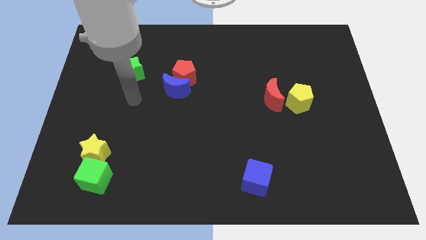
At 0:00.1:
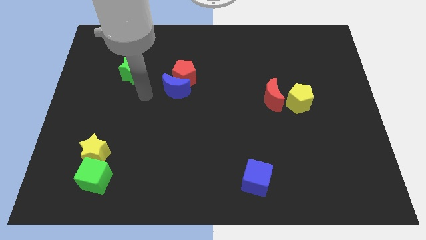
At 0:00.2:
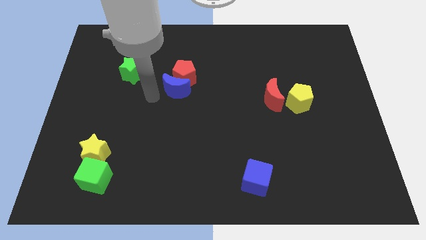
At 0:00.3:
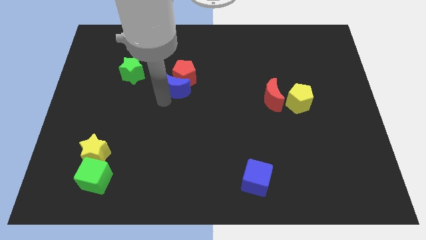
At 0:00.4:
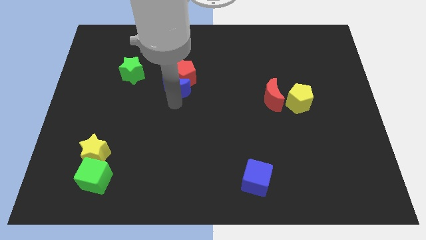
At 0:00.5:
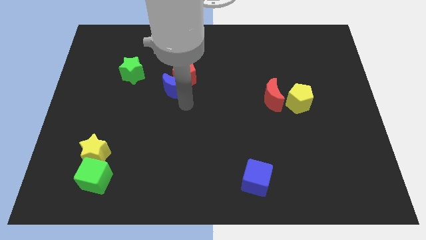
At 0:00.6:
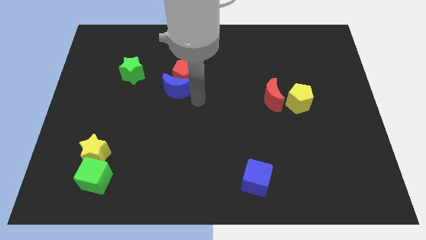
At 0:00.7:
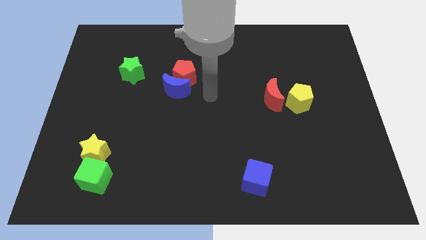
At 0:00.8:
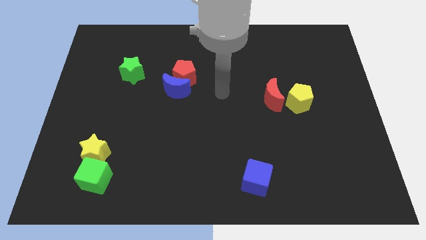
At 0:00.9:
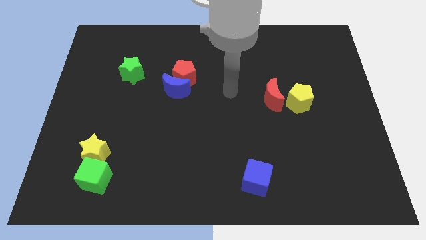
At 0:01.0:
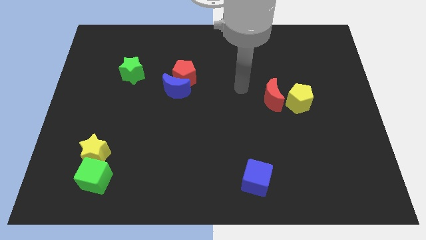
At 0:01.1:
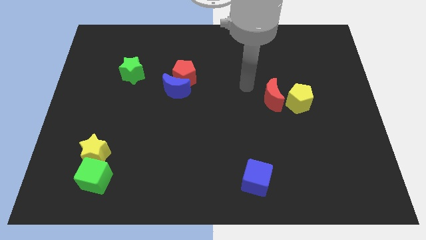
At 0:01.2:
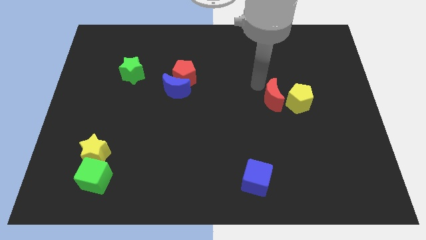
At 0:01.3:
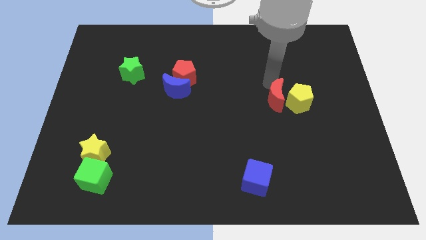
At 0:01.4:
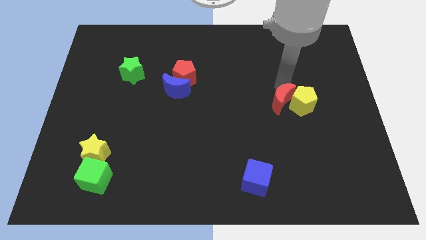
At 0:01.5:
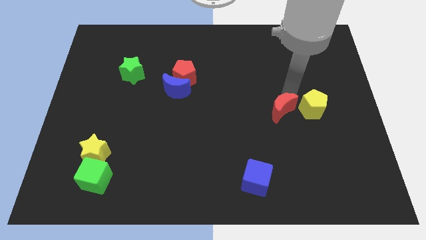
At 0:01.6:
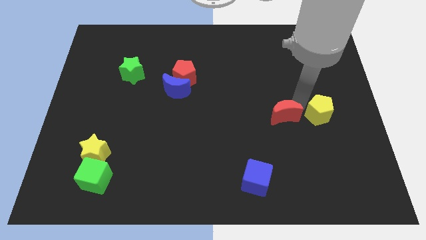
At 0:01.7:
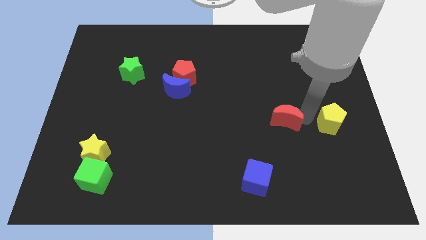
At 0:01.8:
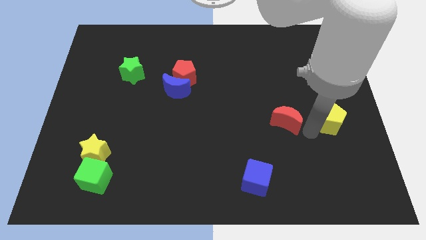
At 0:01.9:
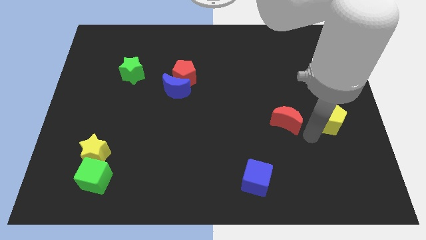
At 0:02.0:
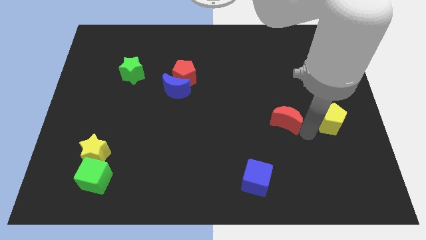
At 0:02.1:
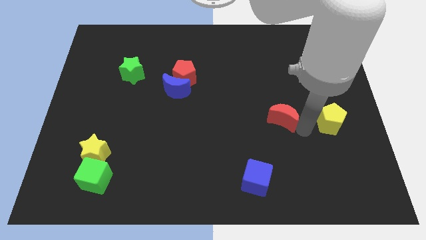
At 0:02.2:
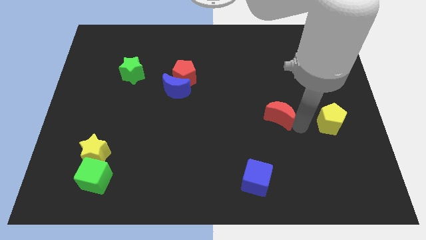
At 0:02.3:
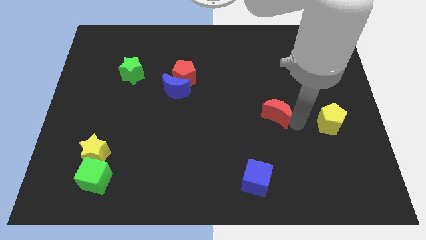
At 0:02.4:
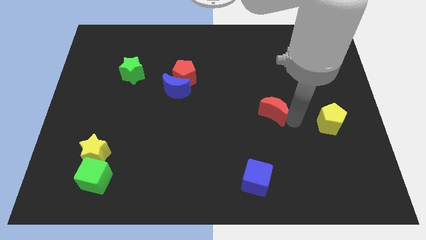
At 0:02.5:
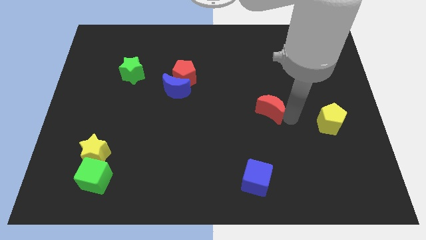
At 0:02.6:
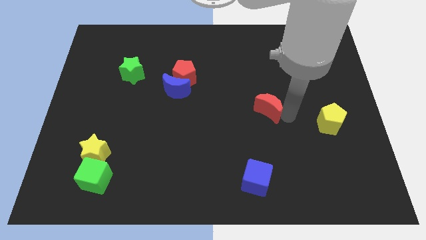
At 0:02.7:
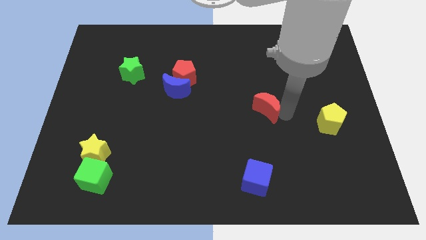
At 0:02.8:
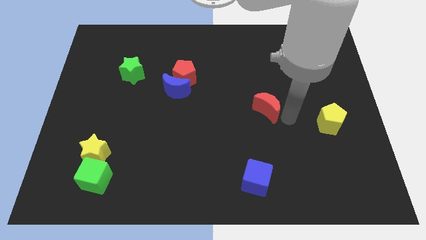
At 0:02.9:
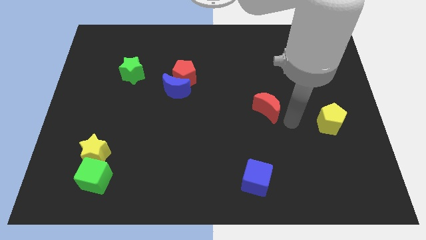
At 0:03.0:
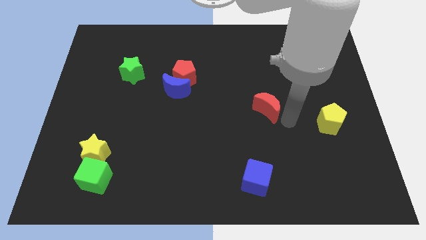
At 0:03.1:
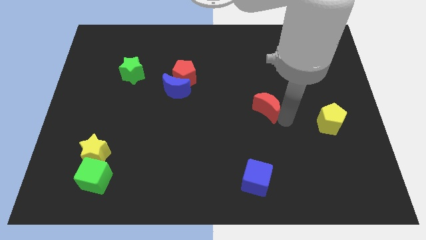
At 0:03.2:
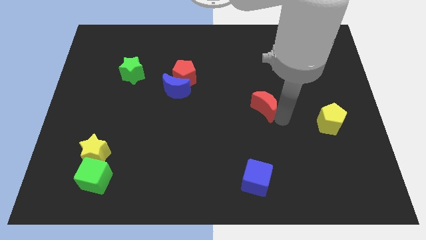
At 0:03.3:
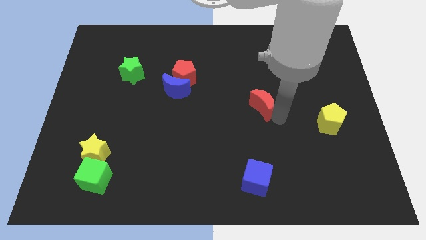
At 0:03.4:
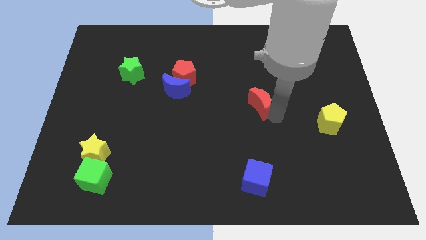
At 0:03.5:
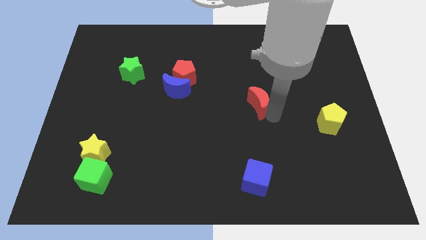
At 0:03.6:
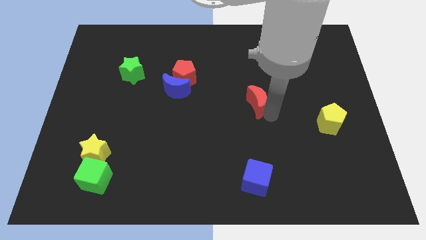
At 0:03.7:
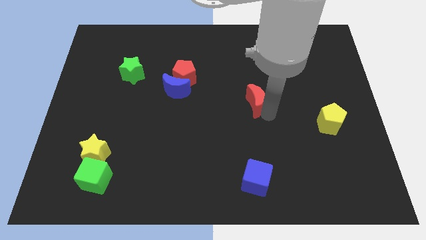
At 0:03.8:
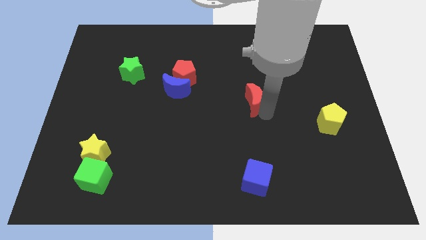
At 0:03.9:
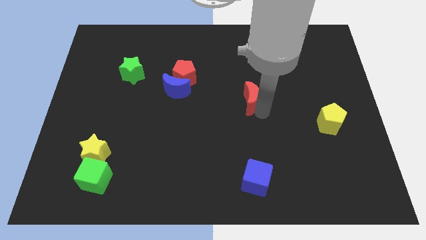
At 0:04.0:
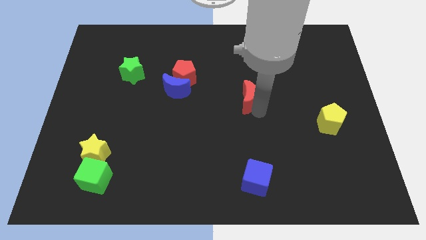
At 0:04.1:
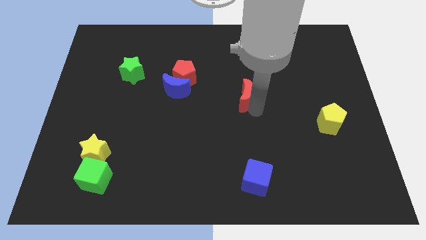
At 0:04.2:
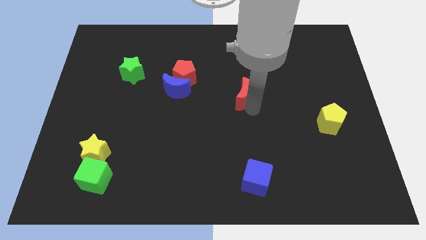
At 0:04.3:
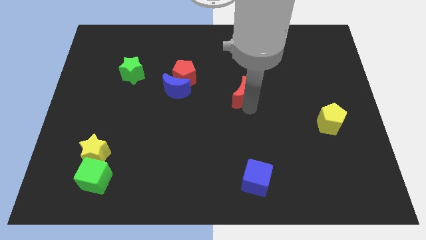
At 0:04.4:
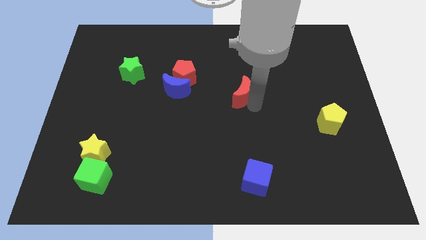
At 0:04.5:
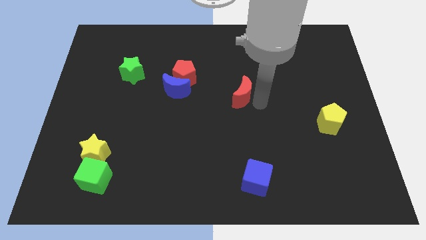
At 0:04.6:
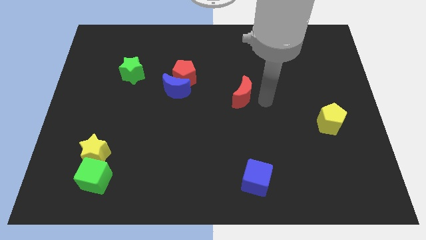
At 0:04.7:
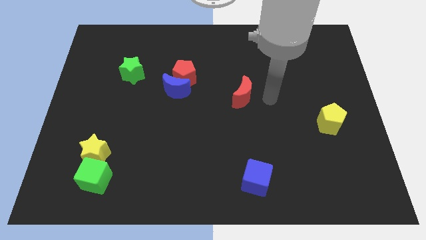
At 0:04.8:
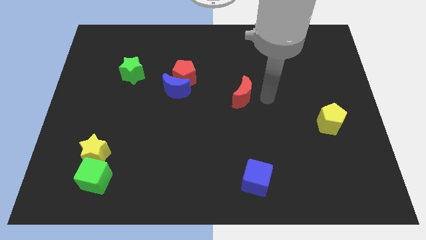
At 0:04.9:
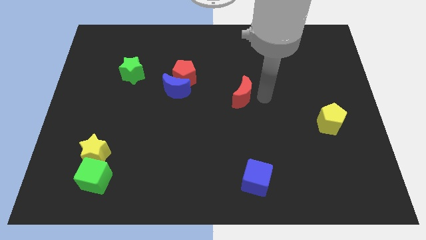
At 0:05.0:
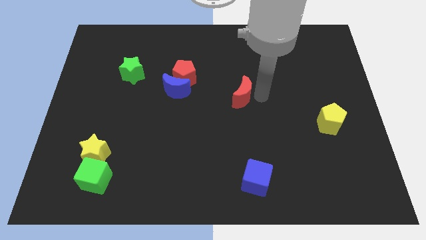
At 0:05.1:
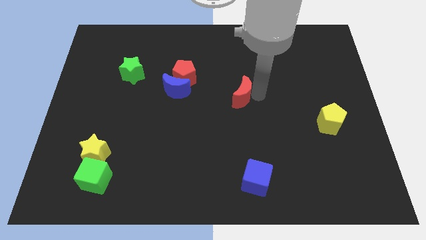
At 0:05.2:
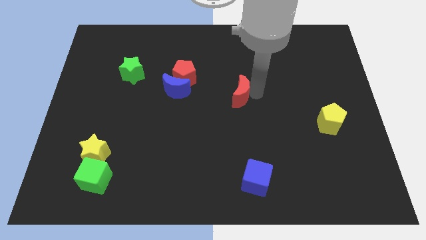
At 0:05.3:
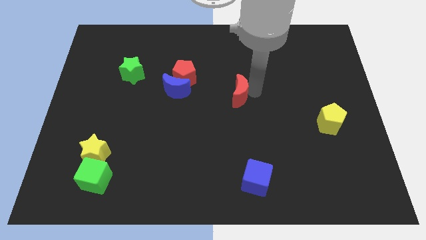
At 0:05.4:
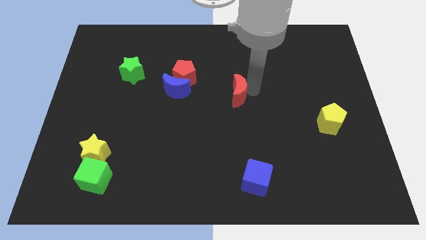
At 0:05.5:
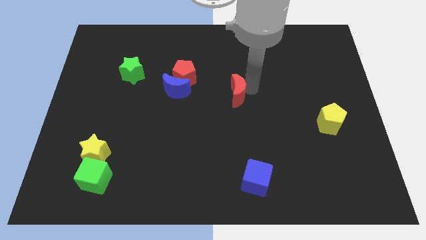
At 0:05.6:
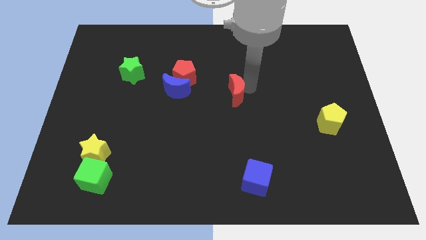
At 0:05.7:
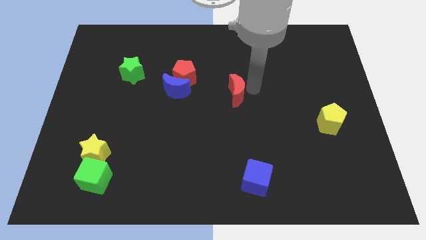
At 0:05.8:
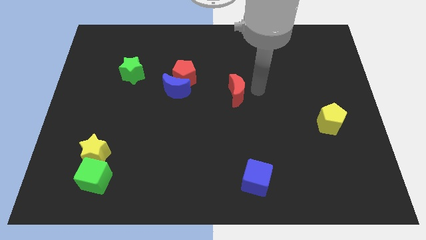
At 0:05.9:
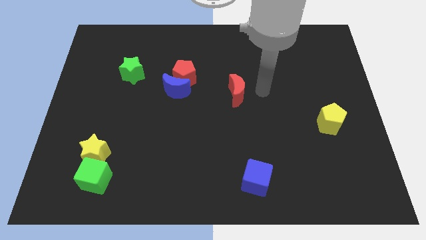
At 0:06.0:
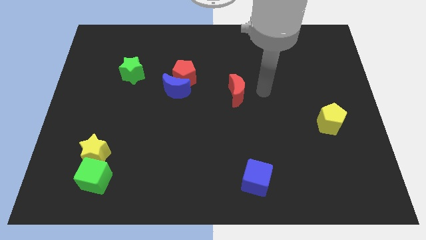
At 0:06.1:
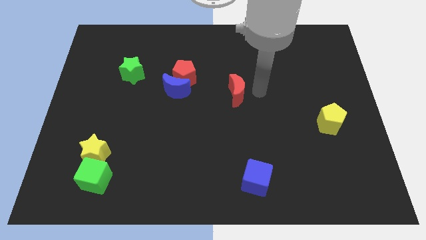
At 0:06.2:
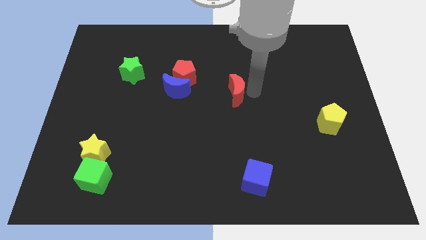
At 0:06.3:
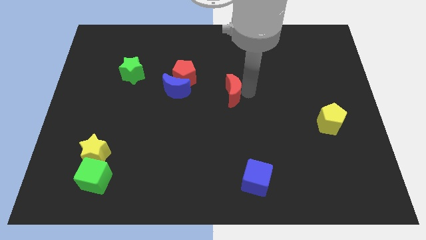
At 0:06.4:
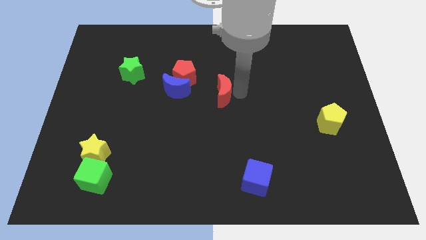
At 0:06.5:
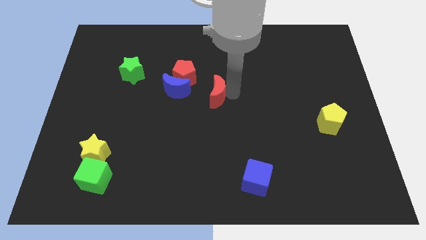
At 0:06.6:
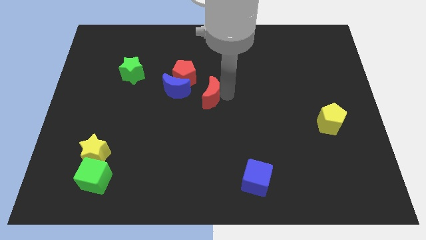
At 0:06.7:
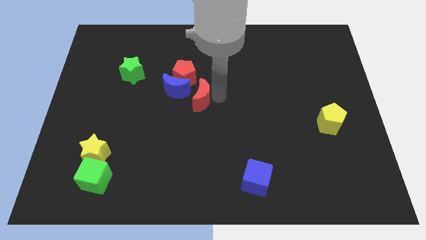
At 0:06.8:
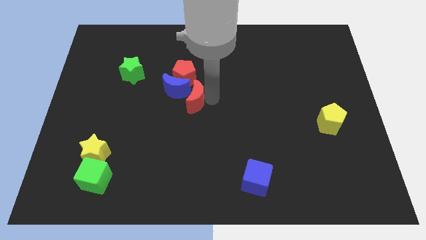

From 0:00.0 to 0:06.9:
push the red moon close to the blue moon
